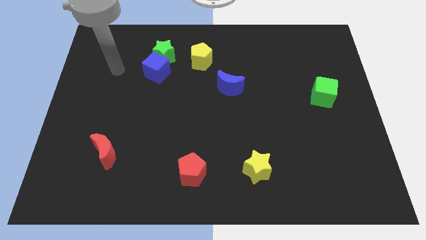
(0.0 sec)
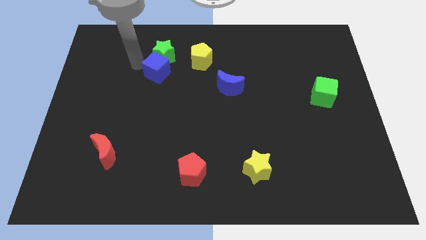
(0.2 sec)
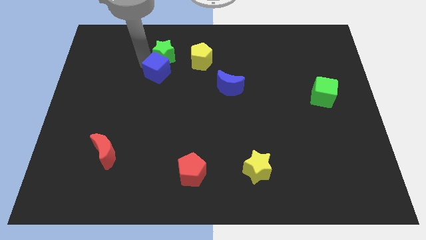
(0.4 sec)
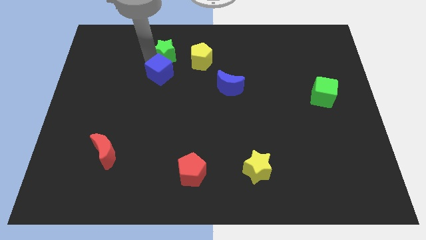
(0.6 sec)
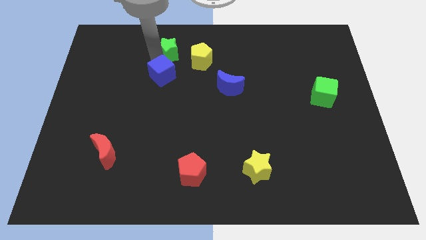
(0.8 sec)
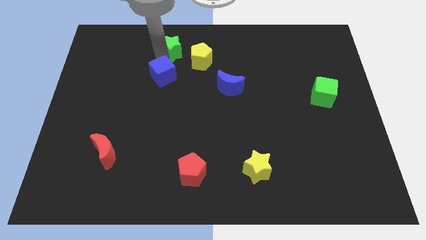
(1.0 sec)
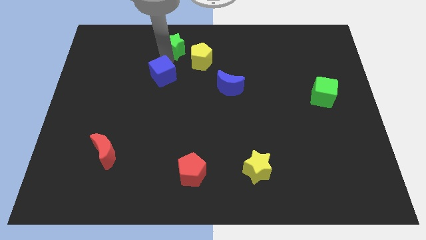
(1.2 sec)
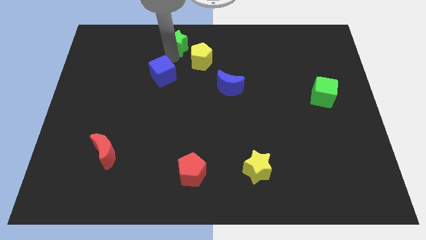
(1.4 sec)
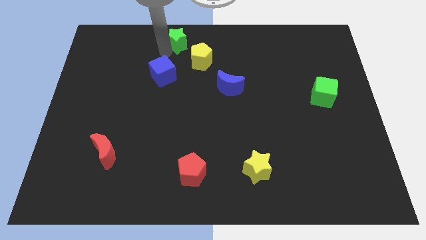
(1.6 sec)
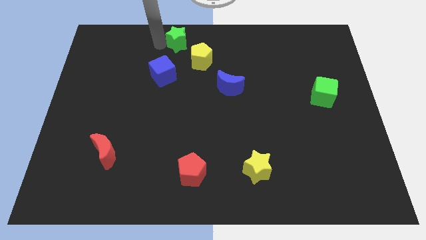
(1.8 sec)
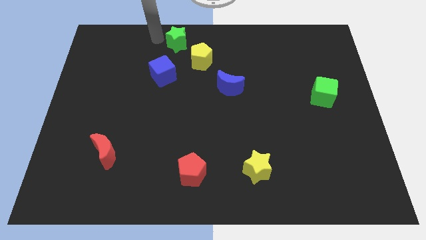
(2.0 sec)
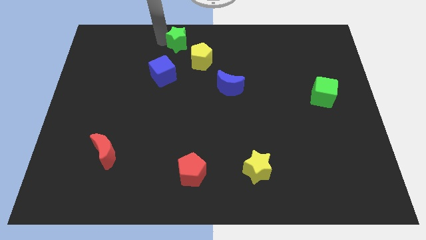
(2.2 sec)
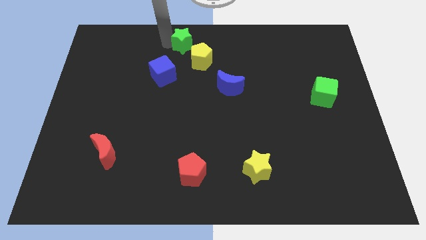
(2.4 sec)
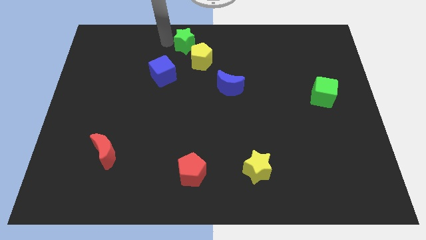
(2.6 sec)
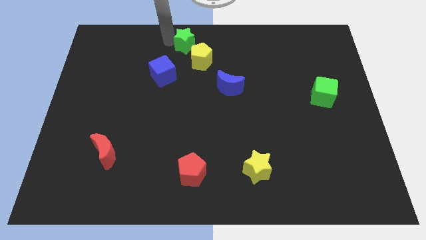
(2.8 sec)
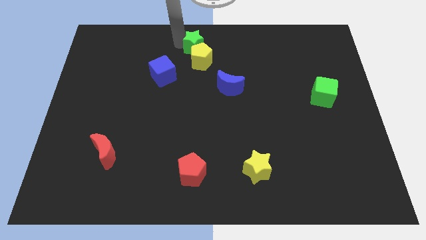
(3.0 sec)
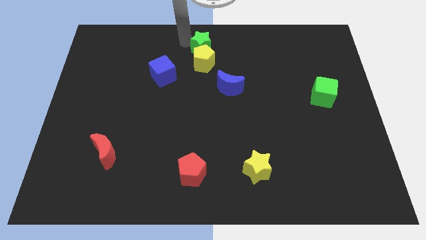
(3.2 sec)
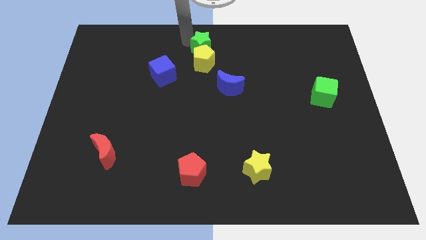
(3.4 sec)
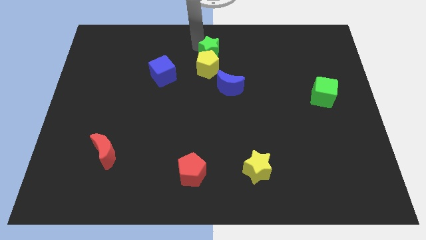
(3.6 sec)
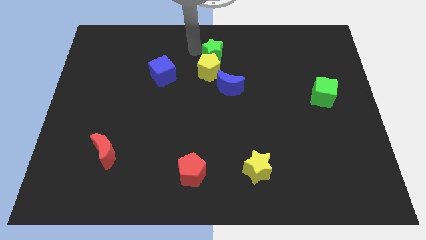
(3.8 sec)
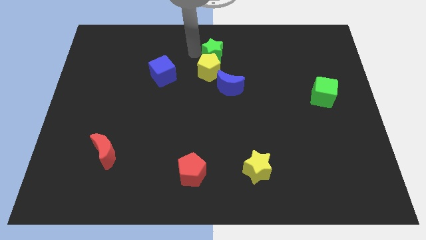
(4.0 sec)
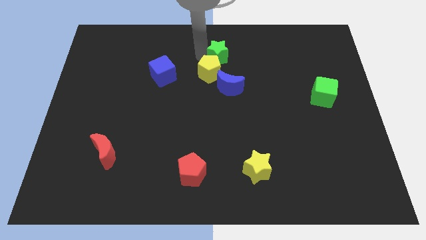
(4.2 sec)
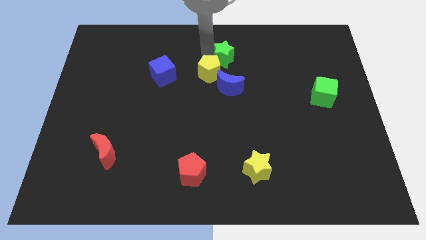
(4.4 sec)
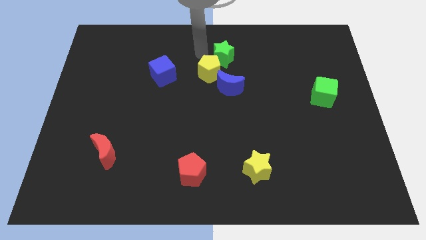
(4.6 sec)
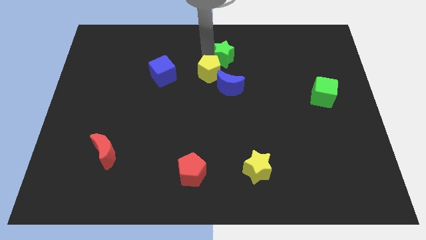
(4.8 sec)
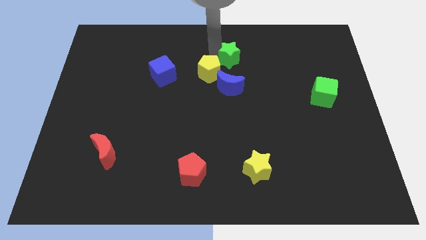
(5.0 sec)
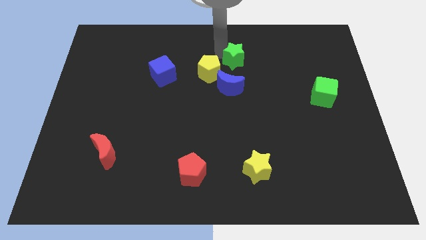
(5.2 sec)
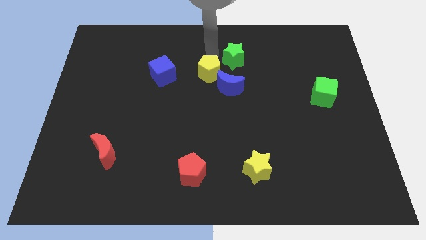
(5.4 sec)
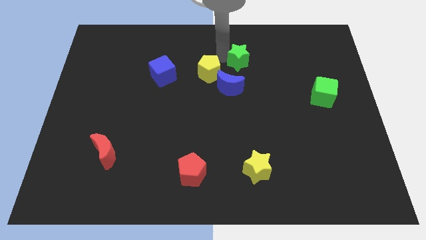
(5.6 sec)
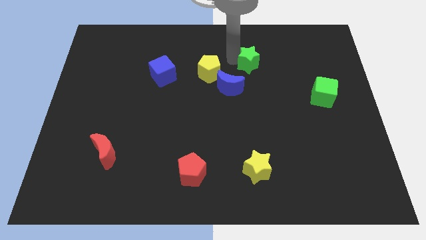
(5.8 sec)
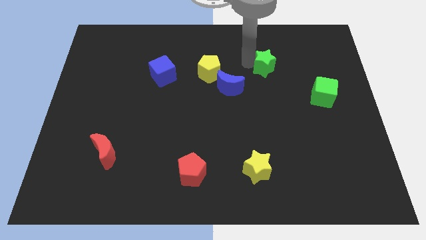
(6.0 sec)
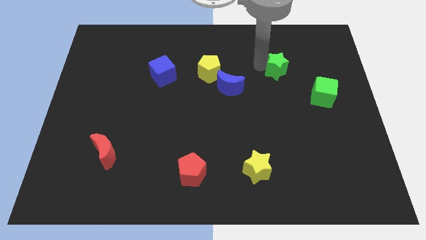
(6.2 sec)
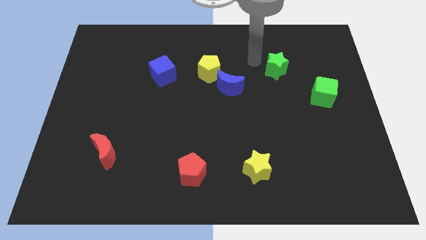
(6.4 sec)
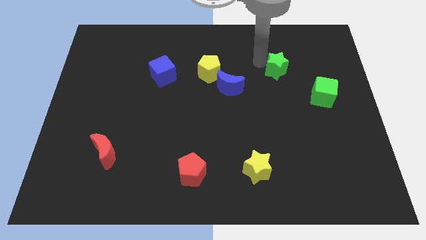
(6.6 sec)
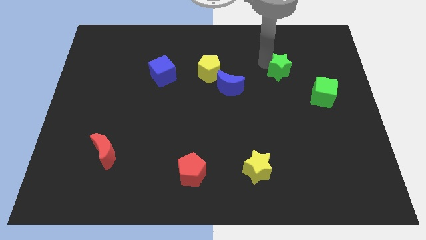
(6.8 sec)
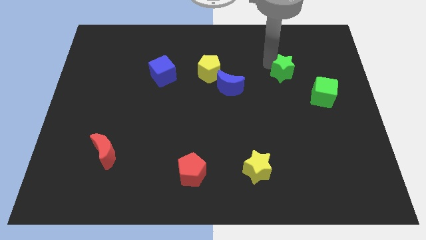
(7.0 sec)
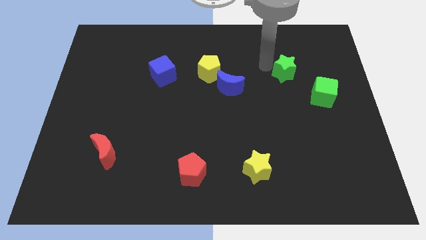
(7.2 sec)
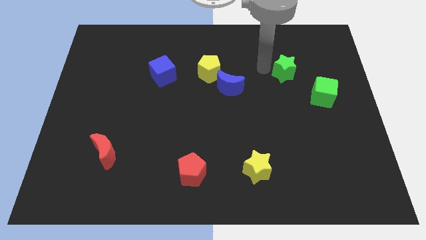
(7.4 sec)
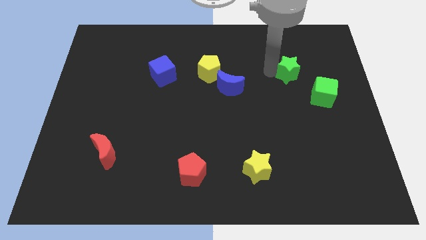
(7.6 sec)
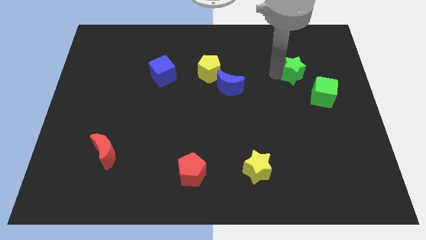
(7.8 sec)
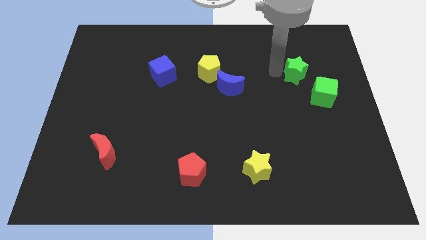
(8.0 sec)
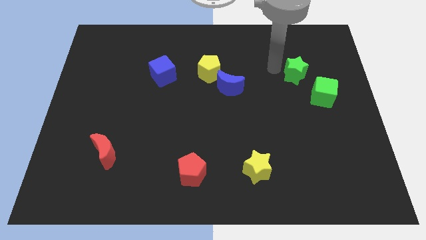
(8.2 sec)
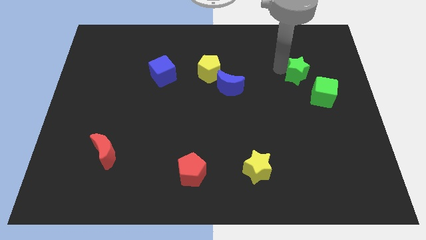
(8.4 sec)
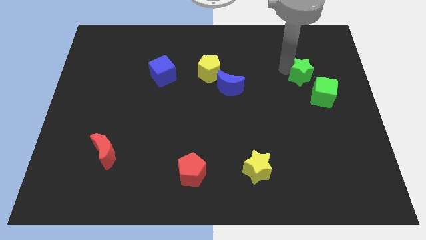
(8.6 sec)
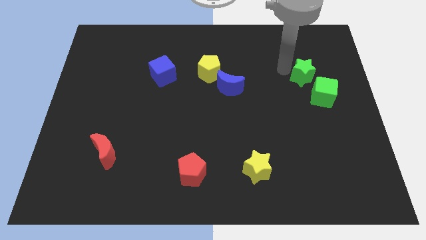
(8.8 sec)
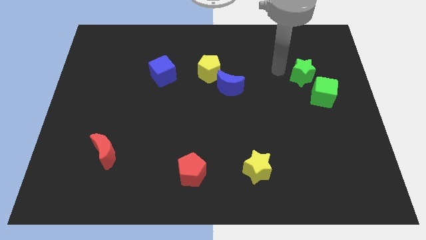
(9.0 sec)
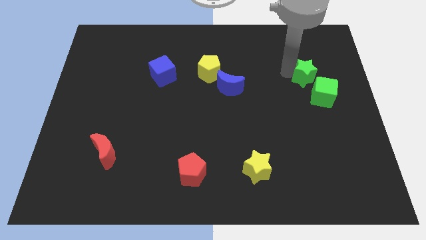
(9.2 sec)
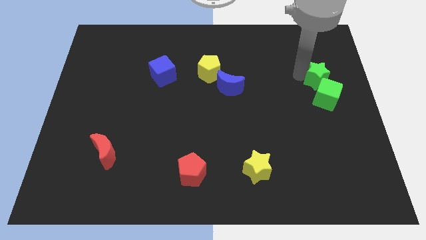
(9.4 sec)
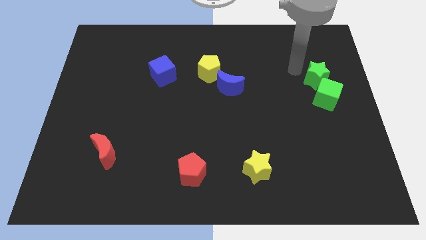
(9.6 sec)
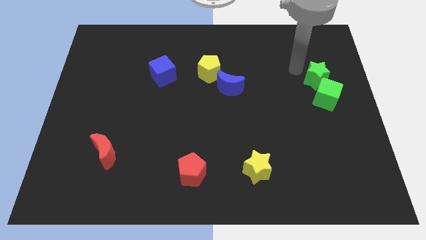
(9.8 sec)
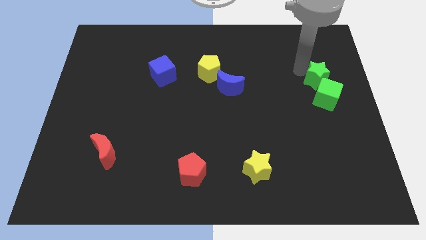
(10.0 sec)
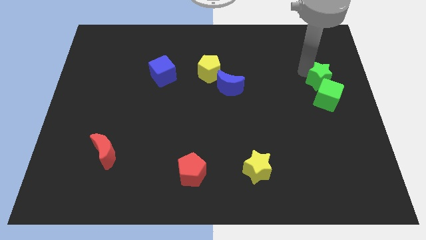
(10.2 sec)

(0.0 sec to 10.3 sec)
push the green star to the right side

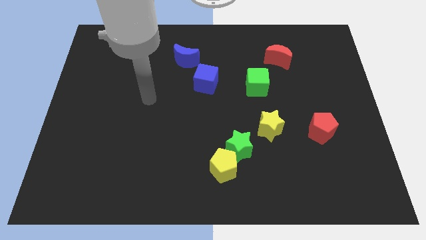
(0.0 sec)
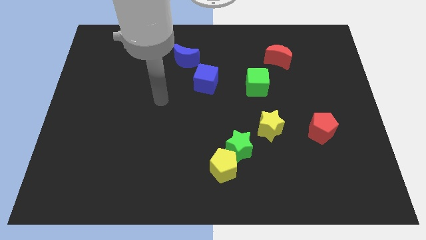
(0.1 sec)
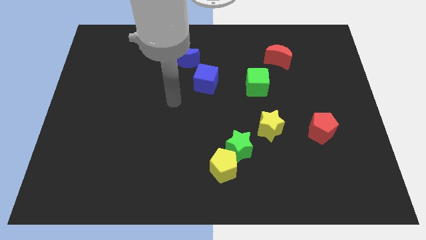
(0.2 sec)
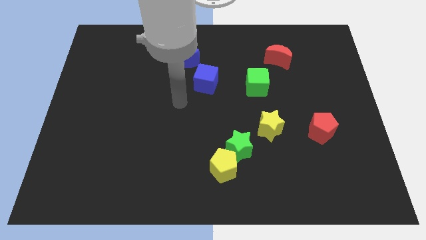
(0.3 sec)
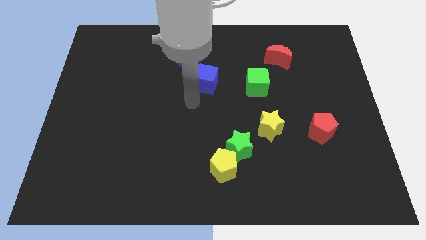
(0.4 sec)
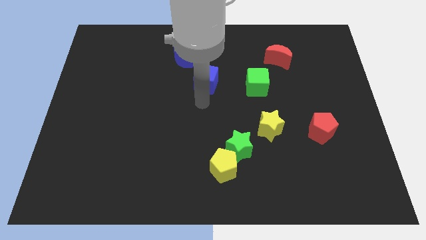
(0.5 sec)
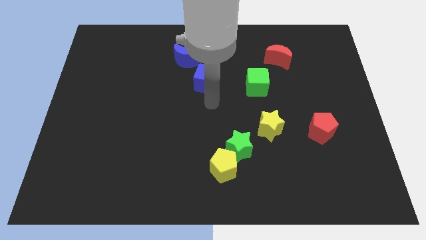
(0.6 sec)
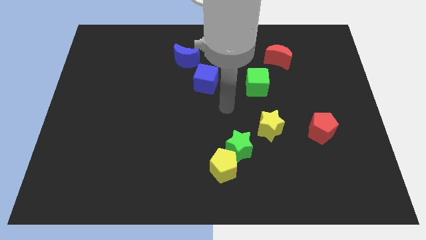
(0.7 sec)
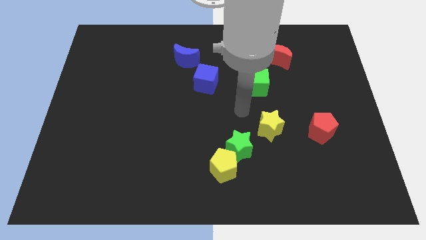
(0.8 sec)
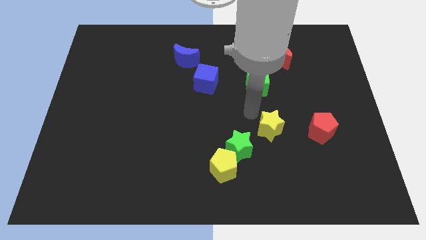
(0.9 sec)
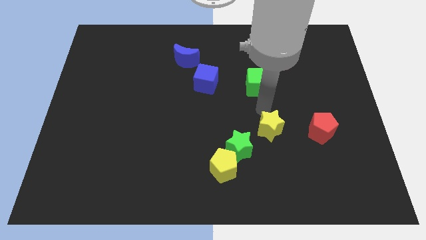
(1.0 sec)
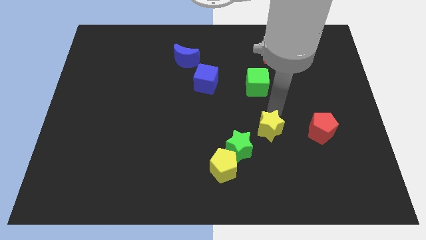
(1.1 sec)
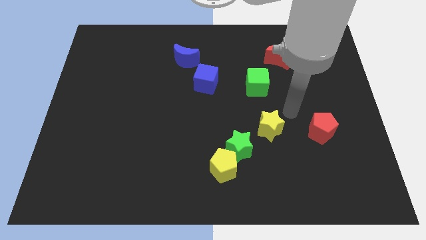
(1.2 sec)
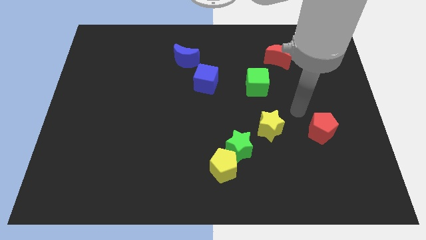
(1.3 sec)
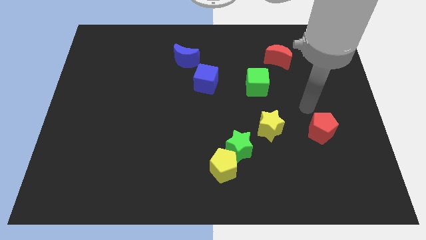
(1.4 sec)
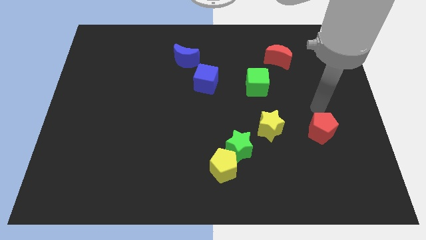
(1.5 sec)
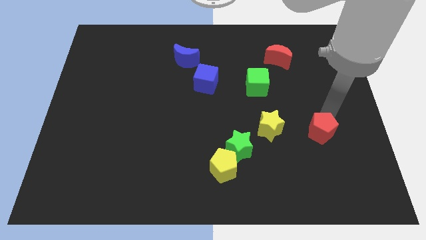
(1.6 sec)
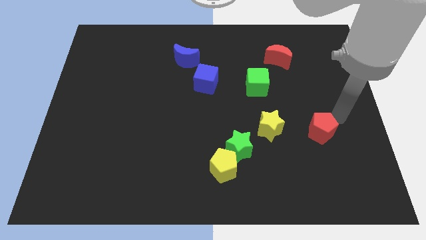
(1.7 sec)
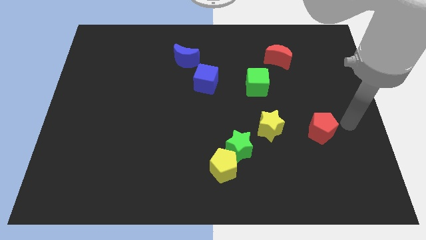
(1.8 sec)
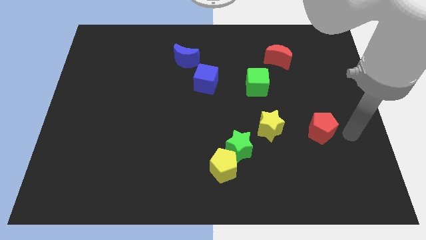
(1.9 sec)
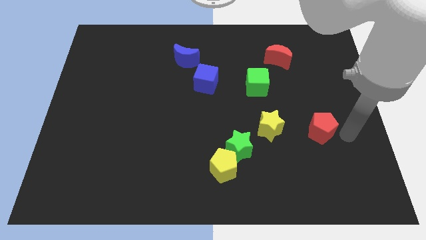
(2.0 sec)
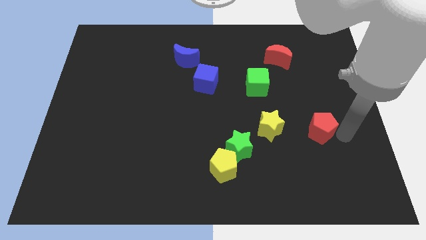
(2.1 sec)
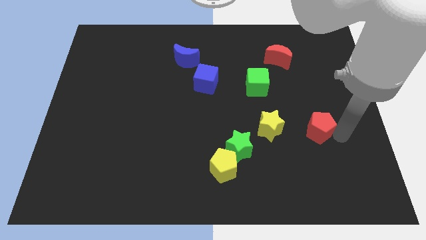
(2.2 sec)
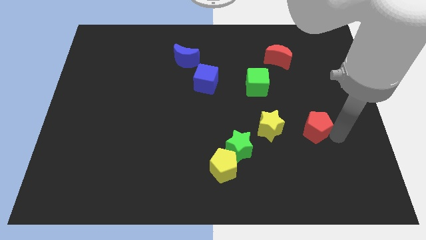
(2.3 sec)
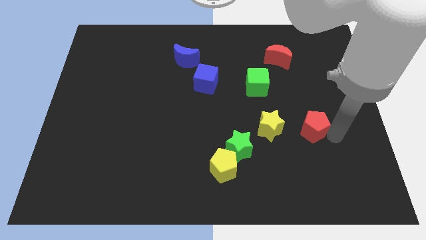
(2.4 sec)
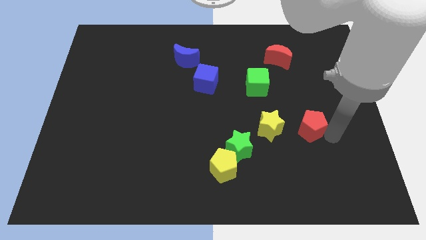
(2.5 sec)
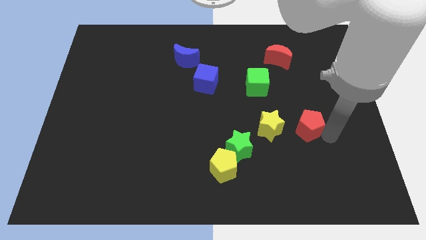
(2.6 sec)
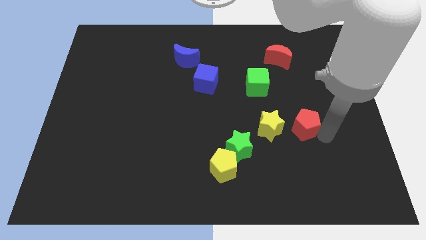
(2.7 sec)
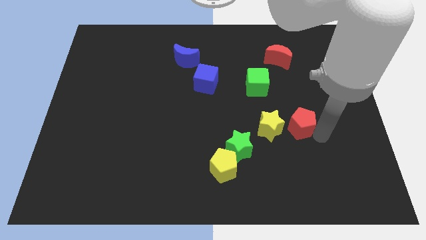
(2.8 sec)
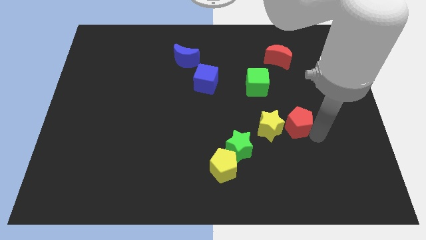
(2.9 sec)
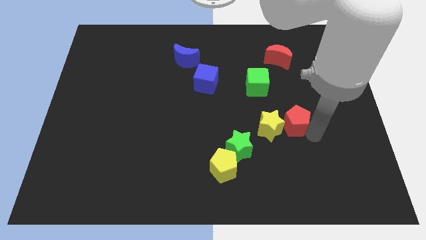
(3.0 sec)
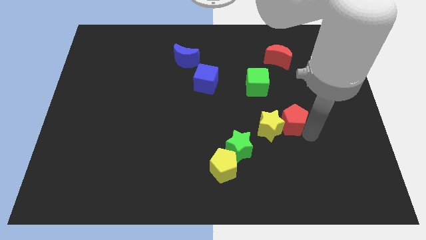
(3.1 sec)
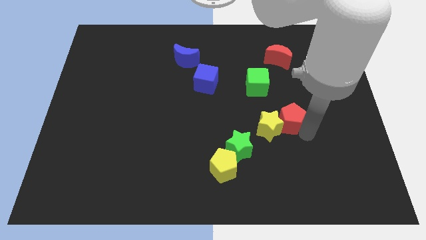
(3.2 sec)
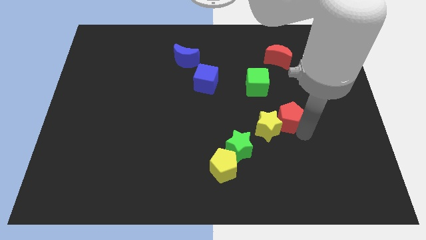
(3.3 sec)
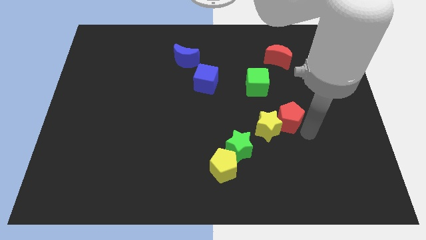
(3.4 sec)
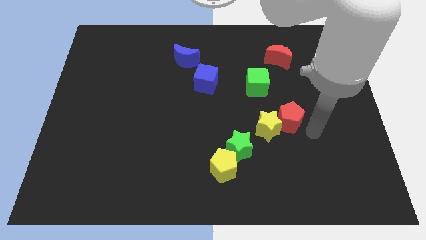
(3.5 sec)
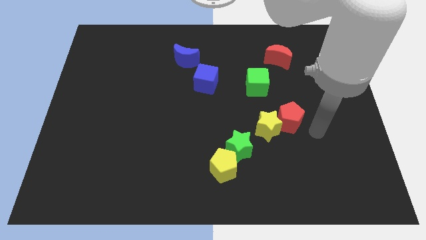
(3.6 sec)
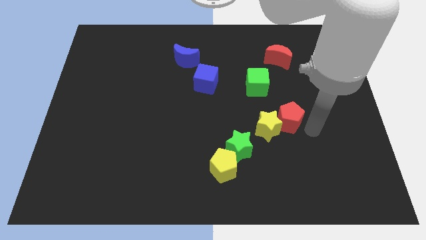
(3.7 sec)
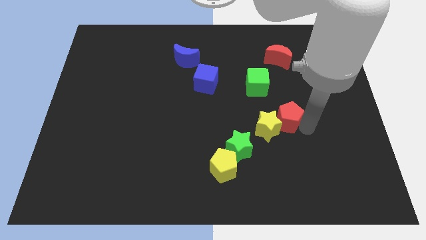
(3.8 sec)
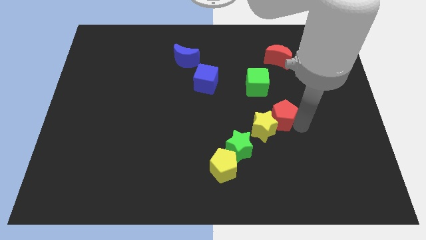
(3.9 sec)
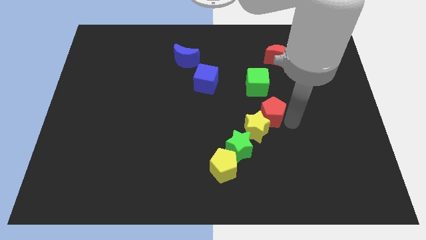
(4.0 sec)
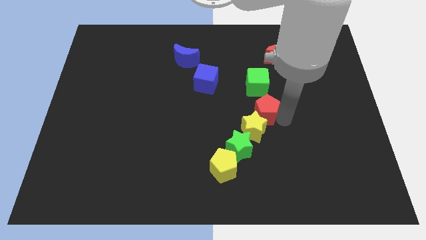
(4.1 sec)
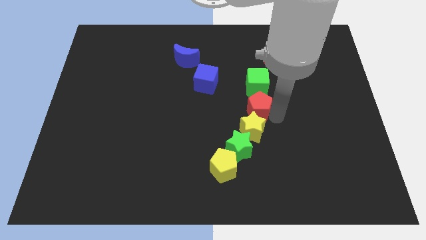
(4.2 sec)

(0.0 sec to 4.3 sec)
move the red pentagon to the middle of the board
